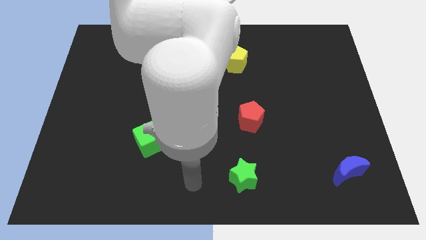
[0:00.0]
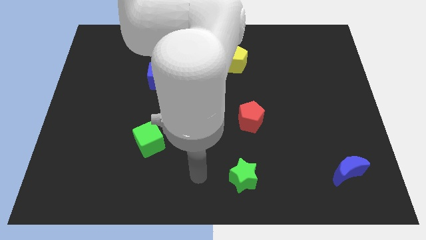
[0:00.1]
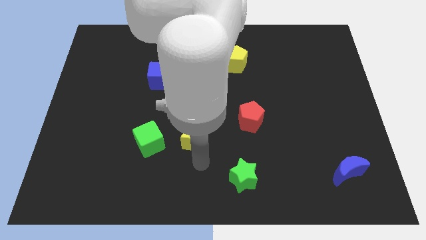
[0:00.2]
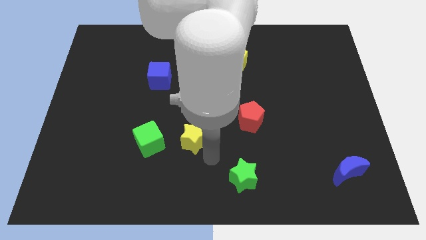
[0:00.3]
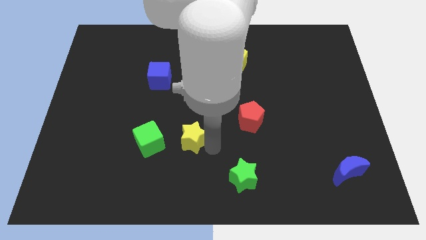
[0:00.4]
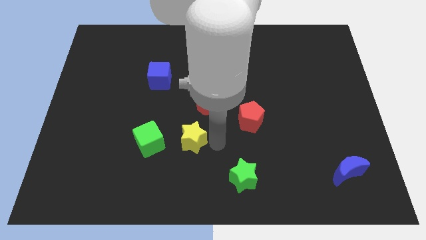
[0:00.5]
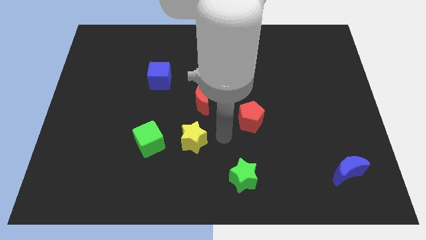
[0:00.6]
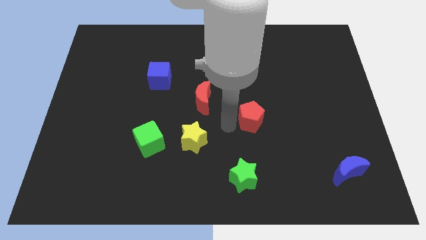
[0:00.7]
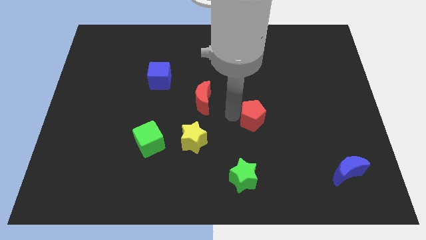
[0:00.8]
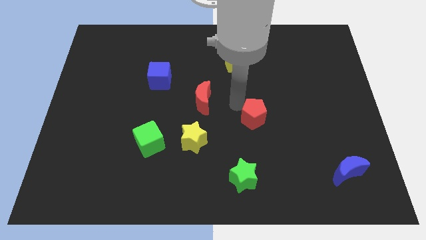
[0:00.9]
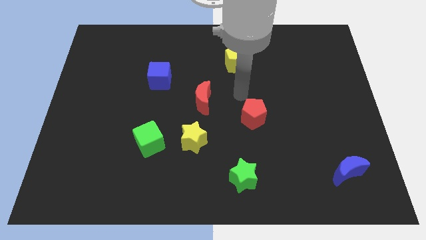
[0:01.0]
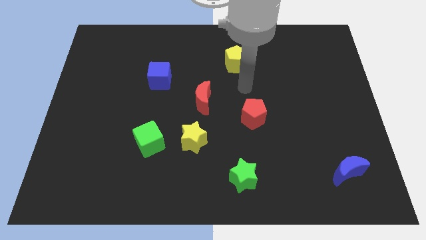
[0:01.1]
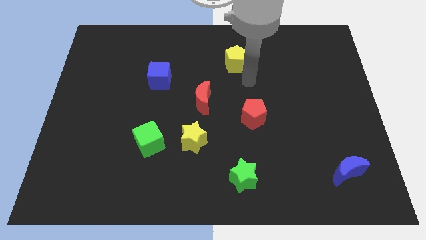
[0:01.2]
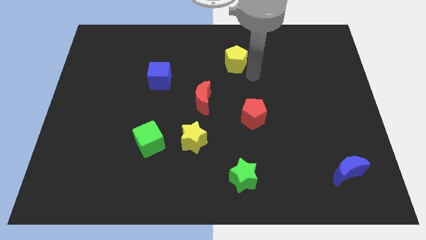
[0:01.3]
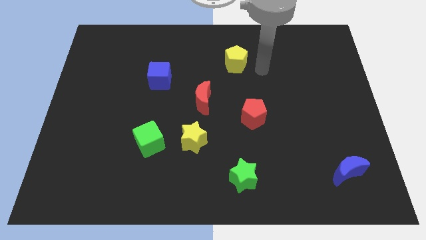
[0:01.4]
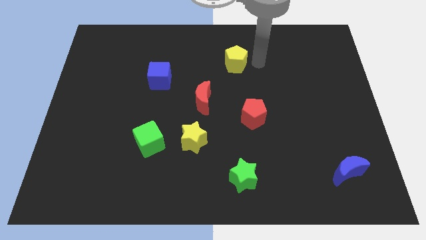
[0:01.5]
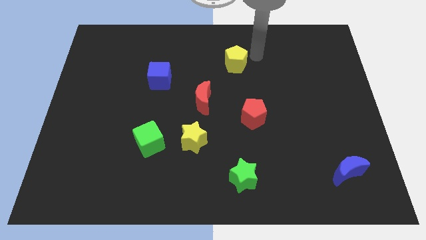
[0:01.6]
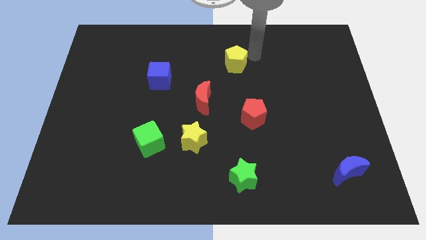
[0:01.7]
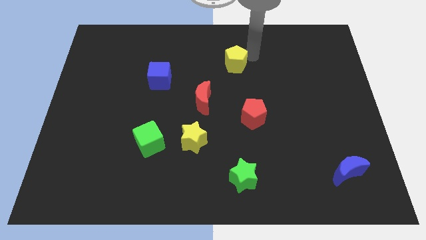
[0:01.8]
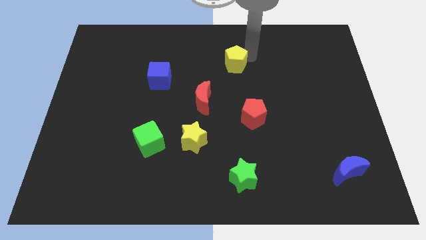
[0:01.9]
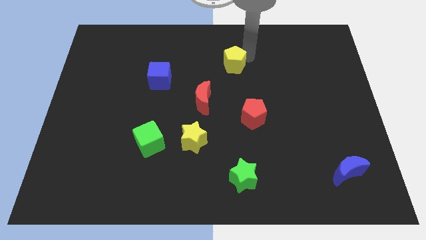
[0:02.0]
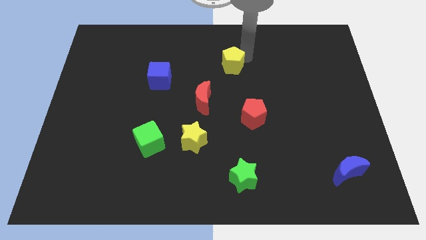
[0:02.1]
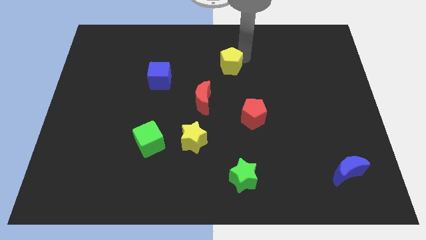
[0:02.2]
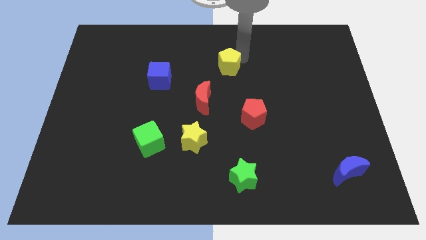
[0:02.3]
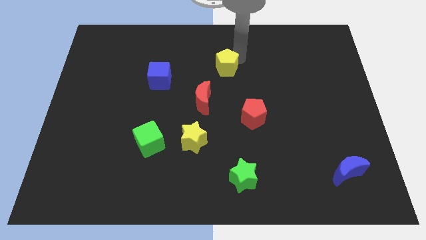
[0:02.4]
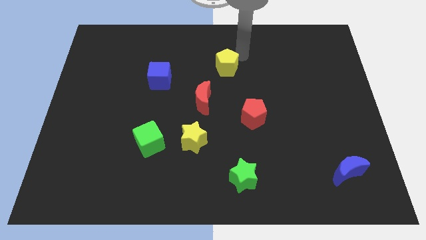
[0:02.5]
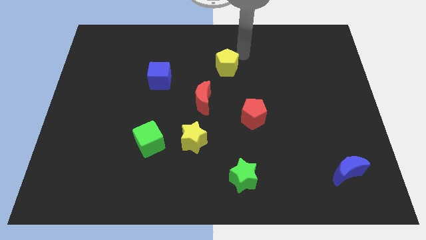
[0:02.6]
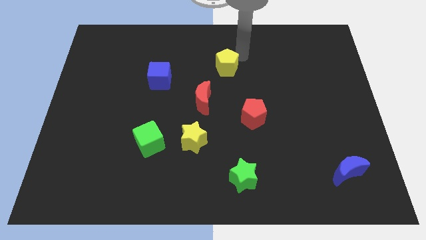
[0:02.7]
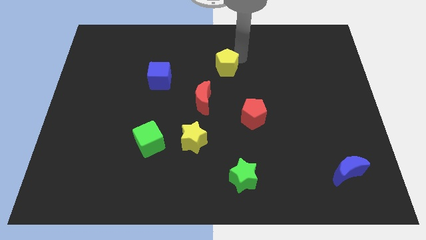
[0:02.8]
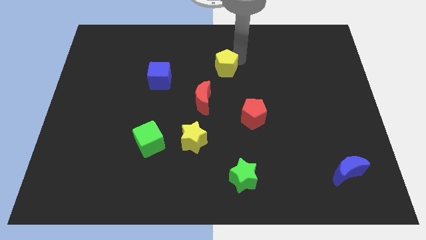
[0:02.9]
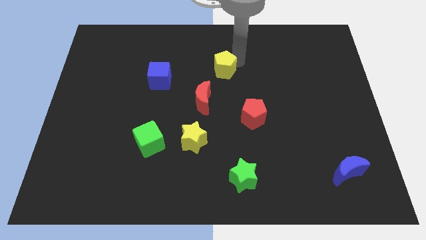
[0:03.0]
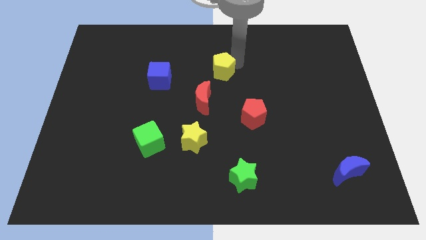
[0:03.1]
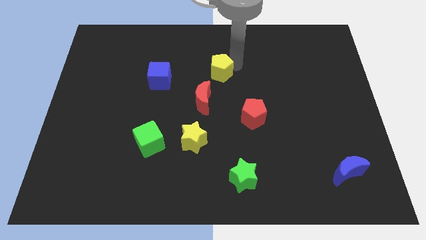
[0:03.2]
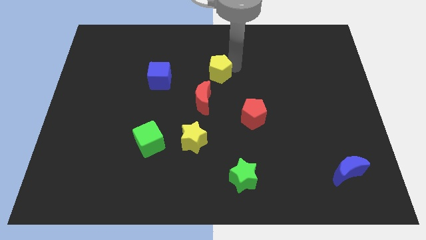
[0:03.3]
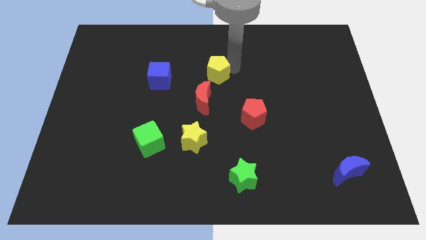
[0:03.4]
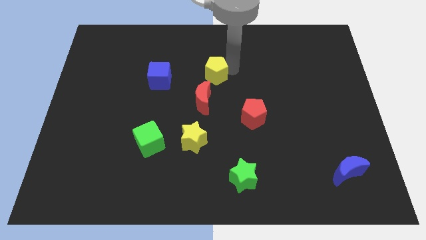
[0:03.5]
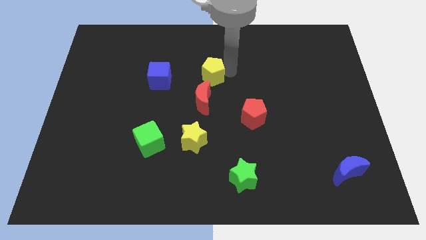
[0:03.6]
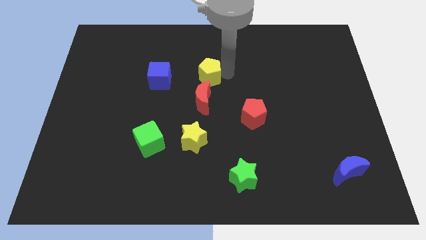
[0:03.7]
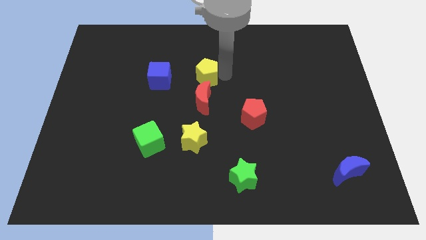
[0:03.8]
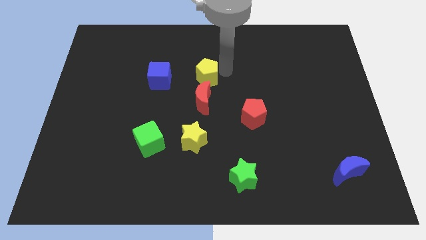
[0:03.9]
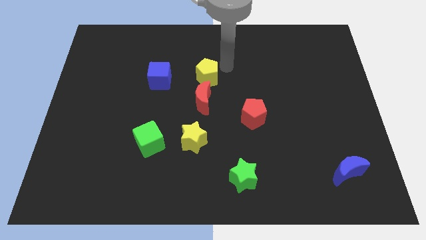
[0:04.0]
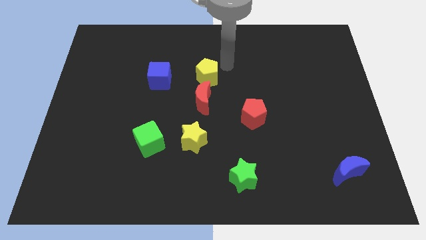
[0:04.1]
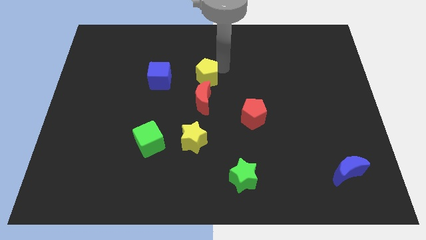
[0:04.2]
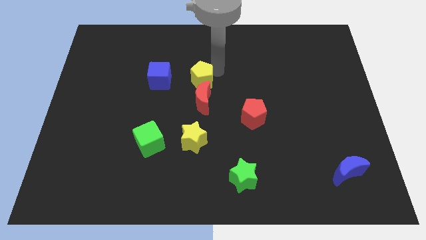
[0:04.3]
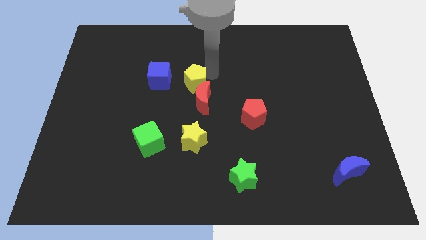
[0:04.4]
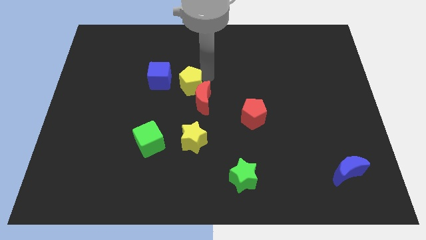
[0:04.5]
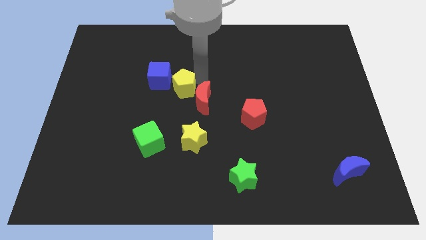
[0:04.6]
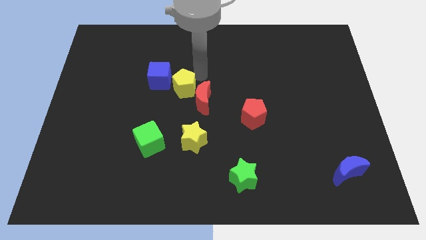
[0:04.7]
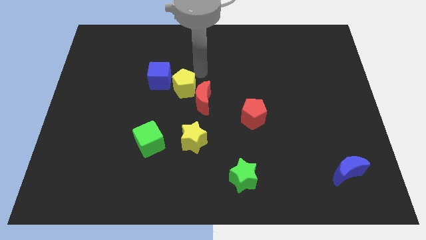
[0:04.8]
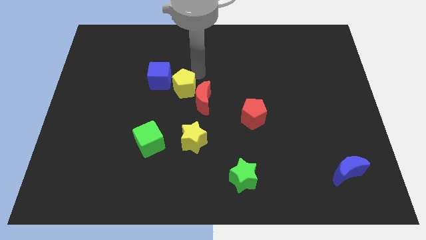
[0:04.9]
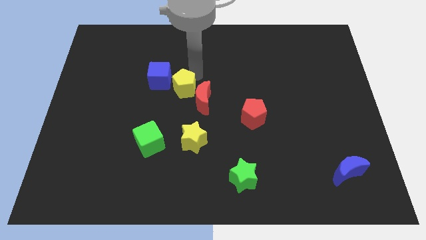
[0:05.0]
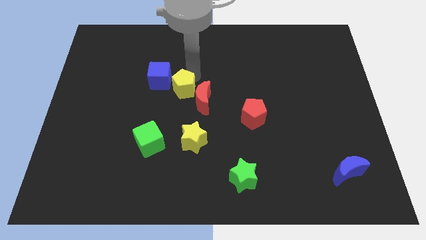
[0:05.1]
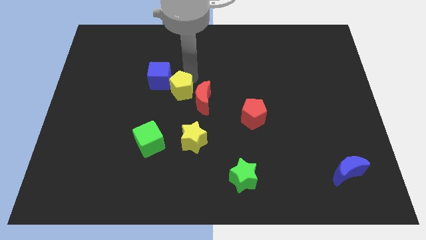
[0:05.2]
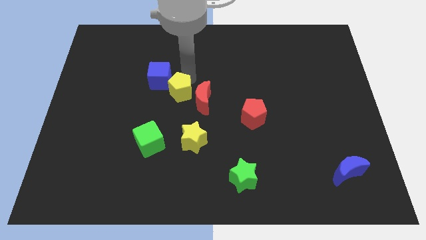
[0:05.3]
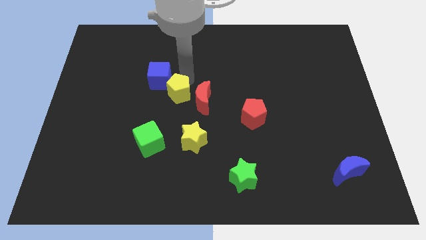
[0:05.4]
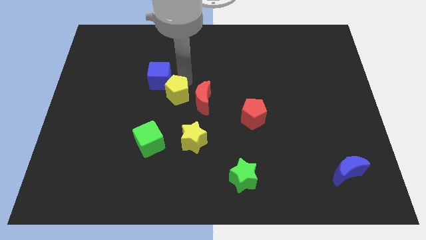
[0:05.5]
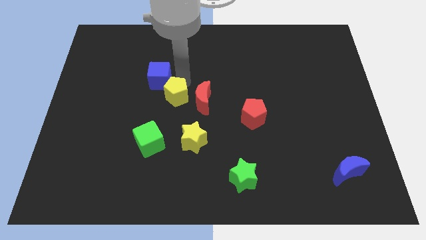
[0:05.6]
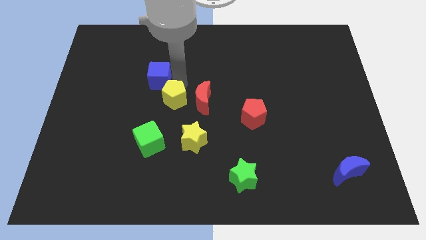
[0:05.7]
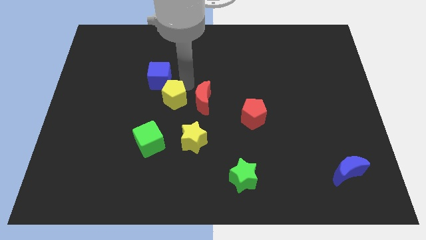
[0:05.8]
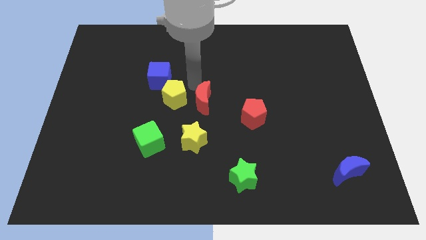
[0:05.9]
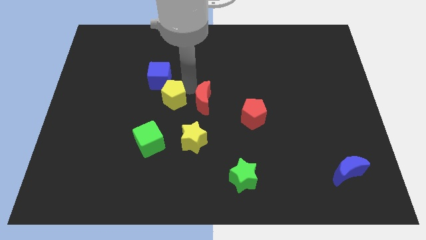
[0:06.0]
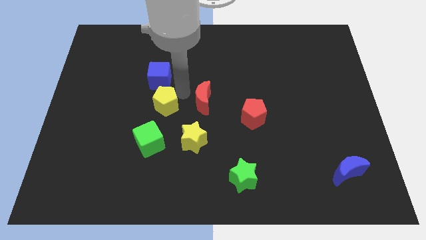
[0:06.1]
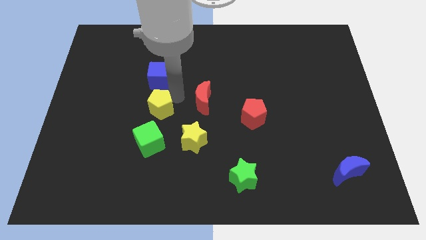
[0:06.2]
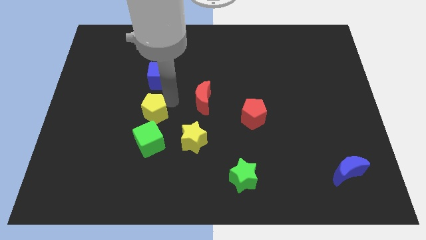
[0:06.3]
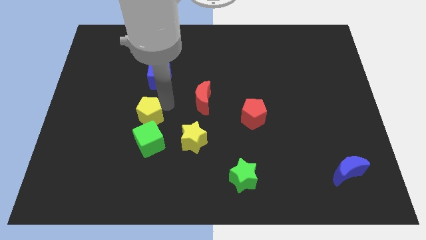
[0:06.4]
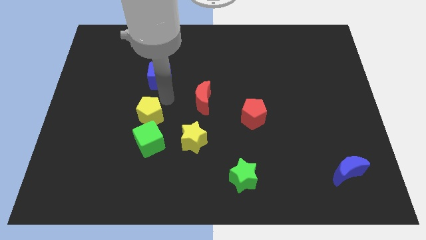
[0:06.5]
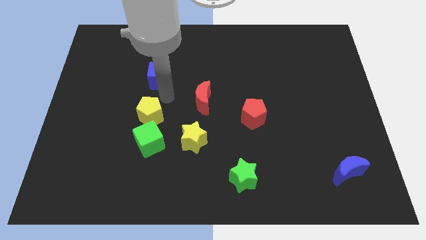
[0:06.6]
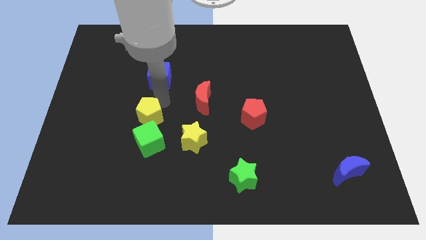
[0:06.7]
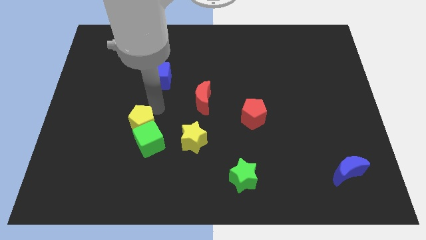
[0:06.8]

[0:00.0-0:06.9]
move the yellow pentagon left of the yellow star

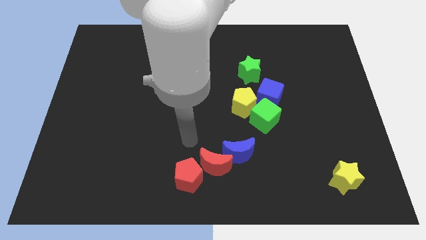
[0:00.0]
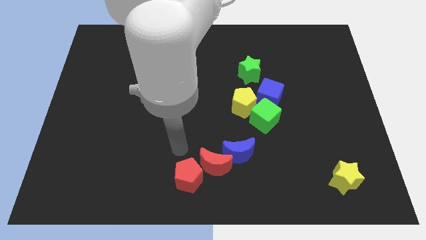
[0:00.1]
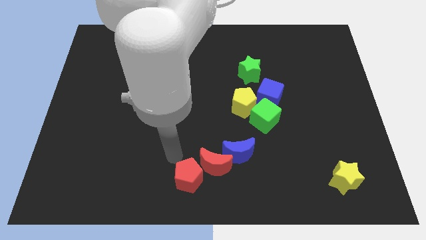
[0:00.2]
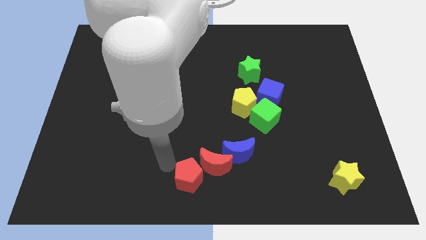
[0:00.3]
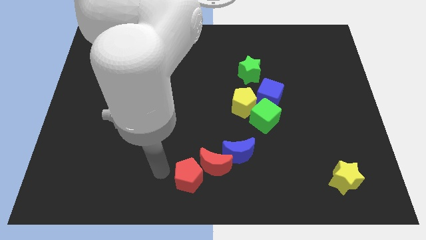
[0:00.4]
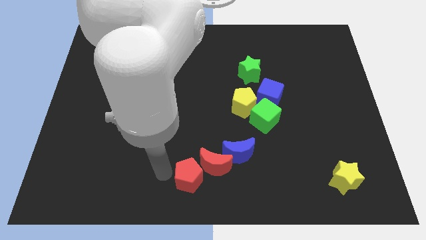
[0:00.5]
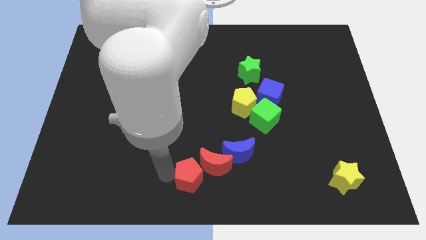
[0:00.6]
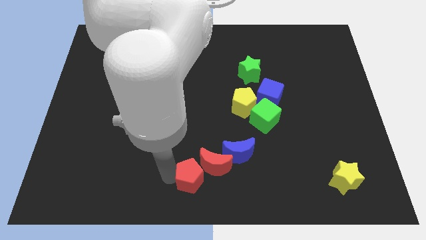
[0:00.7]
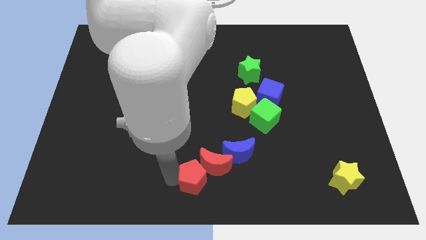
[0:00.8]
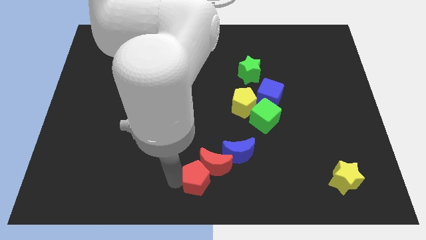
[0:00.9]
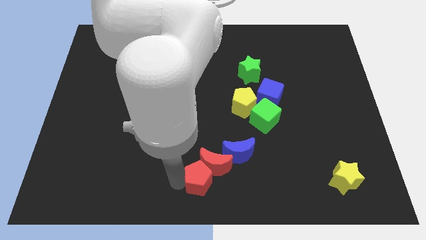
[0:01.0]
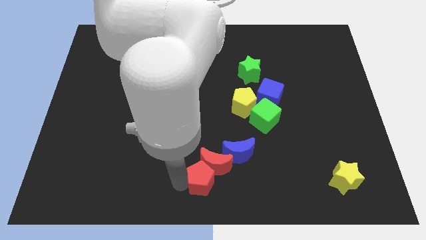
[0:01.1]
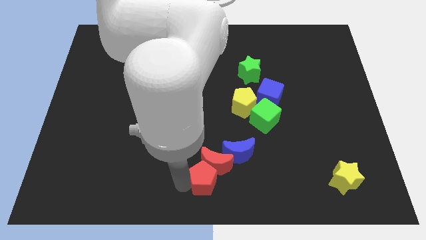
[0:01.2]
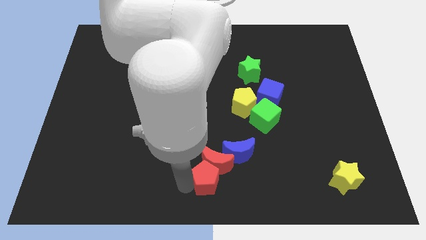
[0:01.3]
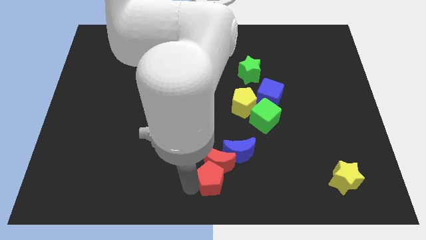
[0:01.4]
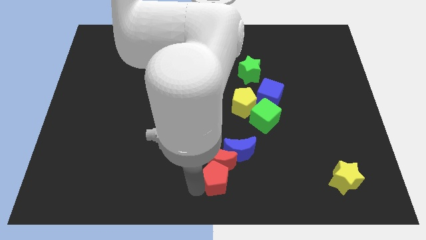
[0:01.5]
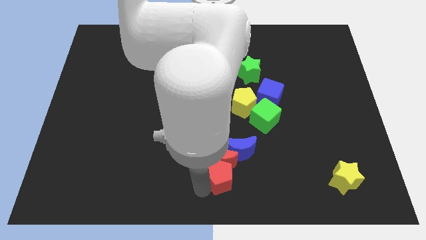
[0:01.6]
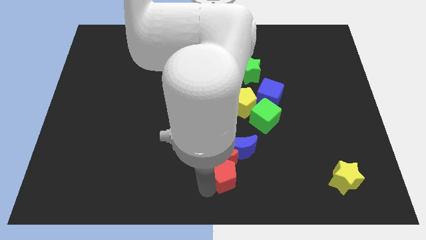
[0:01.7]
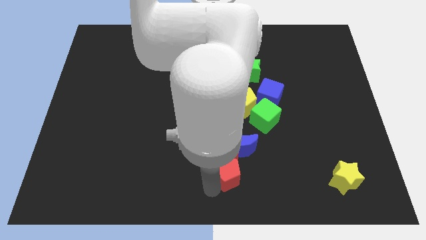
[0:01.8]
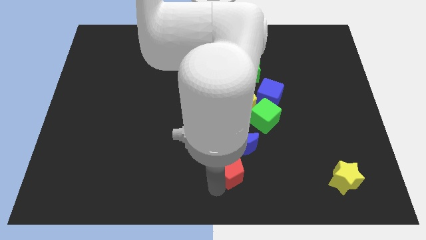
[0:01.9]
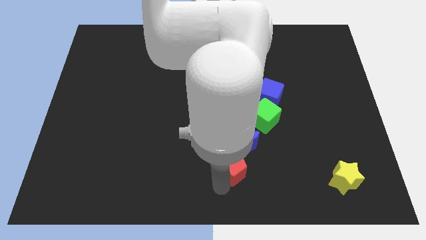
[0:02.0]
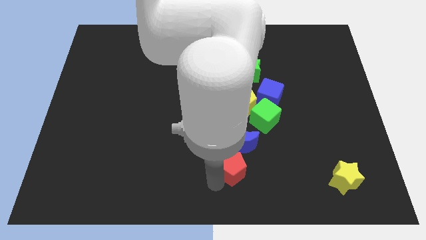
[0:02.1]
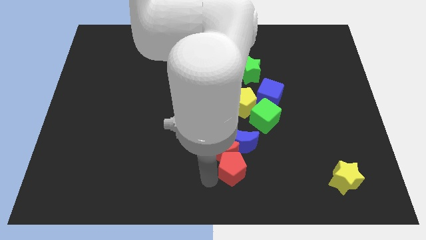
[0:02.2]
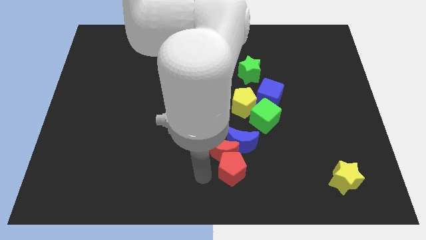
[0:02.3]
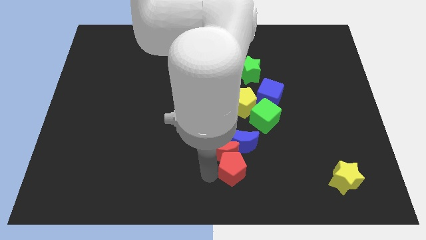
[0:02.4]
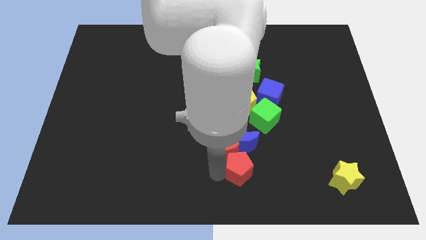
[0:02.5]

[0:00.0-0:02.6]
push the red pentagon to the bottom right side of the blue moon
